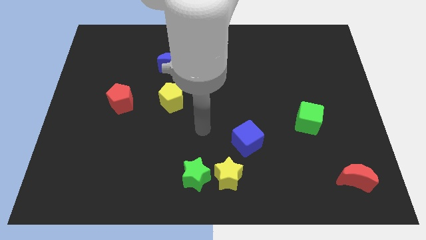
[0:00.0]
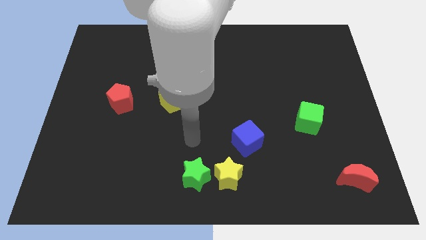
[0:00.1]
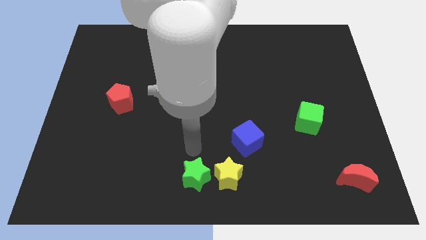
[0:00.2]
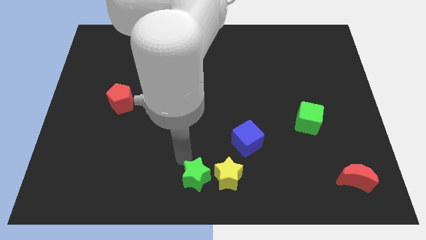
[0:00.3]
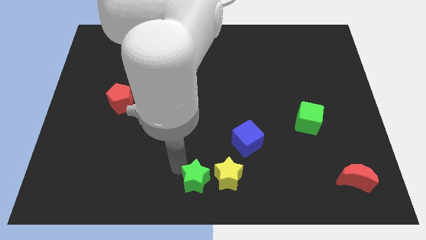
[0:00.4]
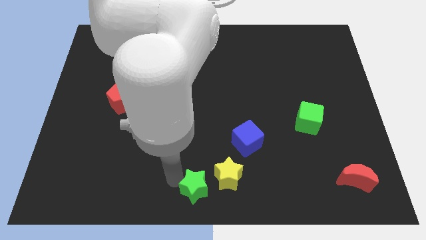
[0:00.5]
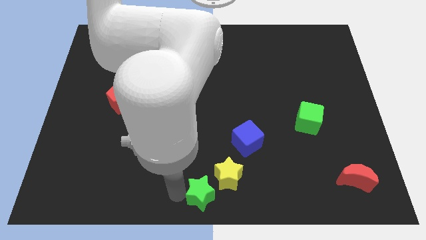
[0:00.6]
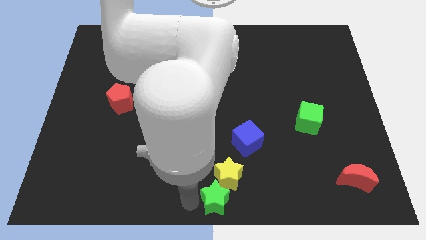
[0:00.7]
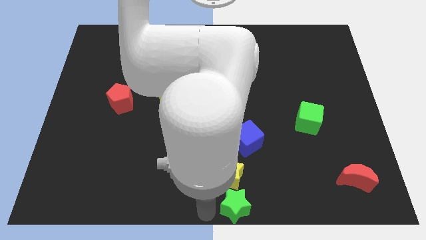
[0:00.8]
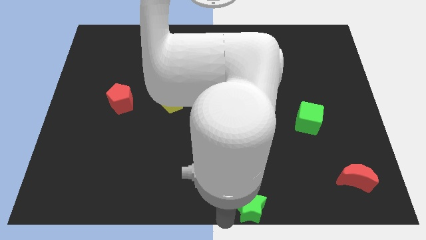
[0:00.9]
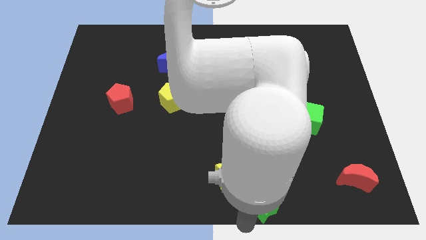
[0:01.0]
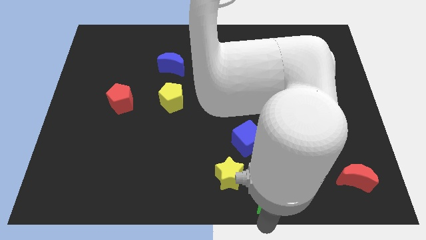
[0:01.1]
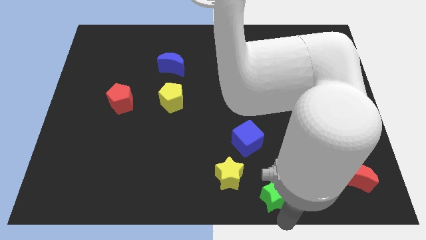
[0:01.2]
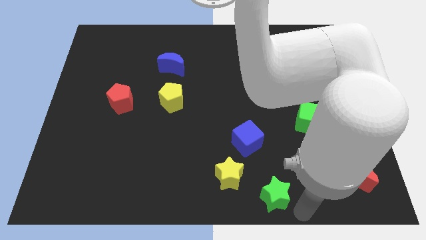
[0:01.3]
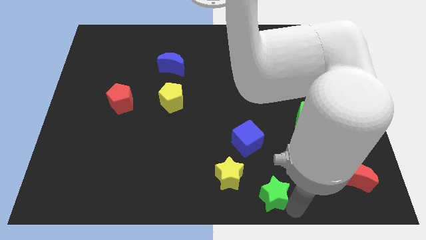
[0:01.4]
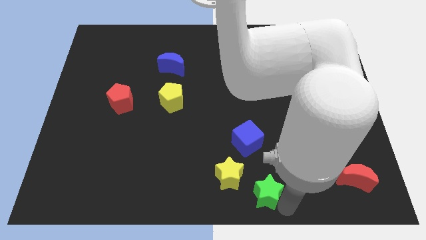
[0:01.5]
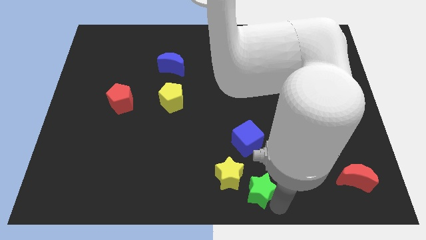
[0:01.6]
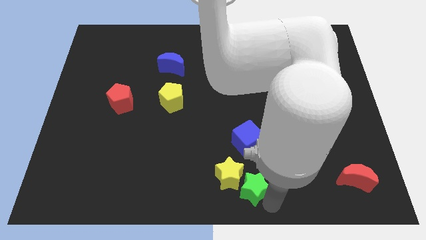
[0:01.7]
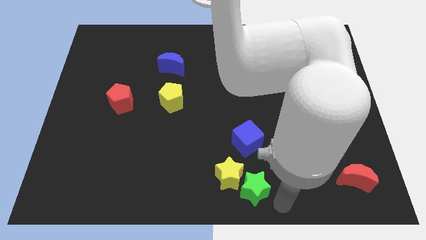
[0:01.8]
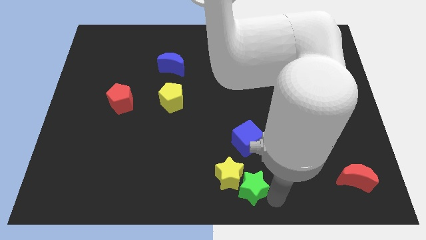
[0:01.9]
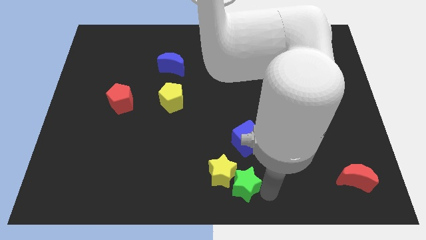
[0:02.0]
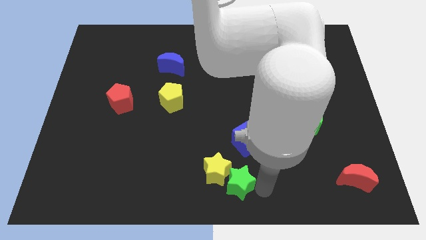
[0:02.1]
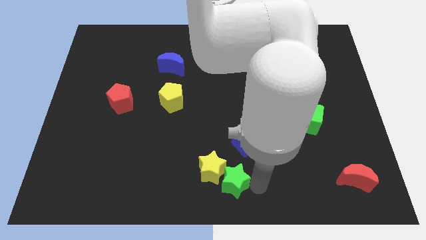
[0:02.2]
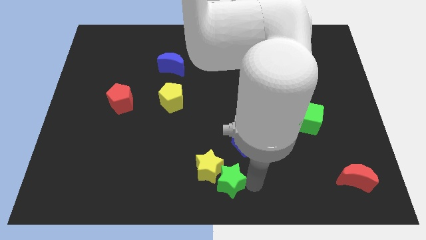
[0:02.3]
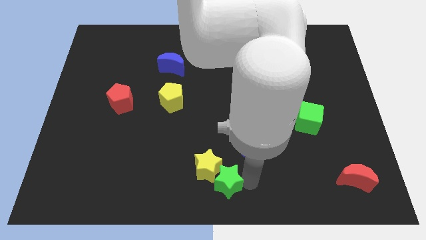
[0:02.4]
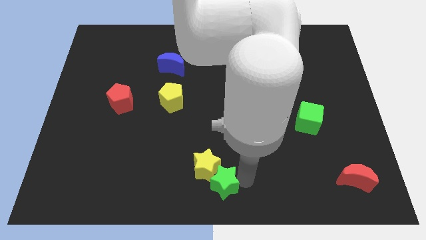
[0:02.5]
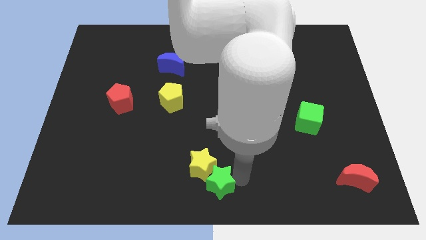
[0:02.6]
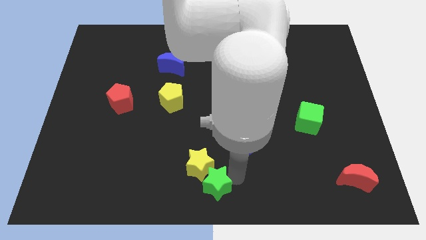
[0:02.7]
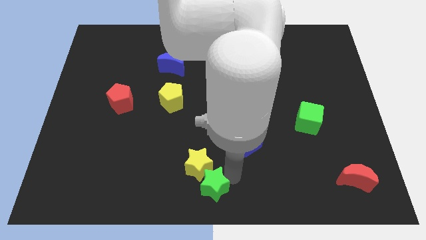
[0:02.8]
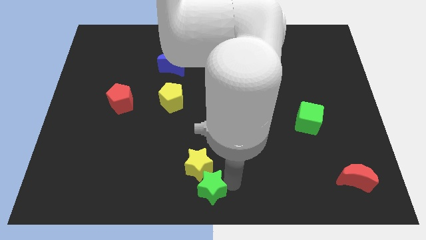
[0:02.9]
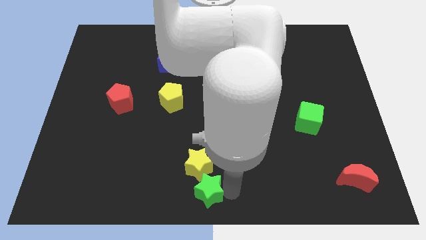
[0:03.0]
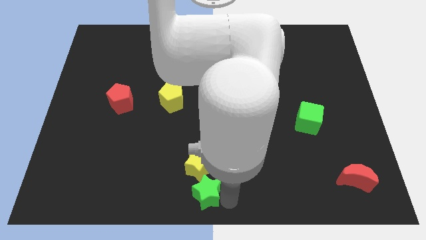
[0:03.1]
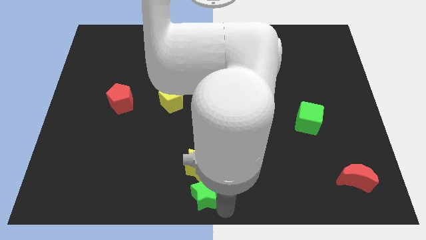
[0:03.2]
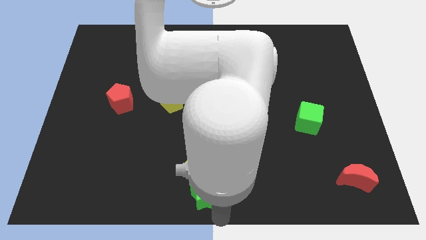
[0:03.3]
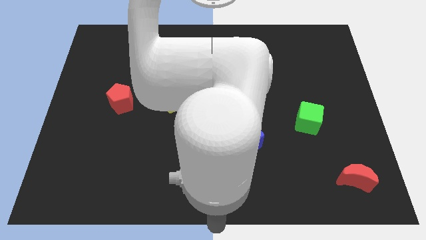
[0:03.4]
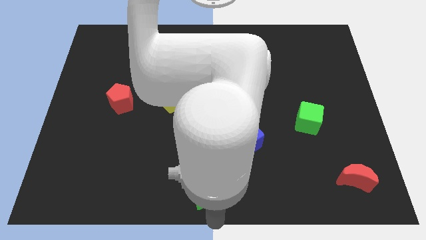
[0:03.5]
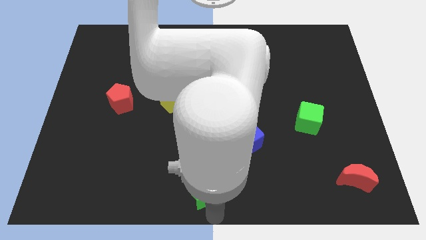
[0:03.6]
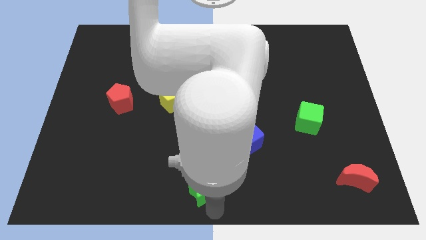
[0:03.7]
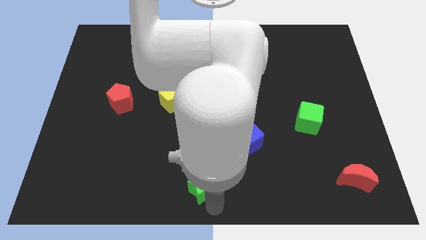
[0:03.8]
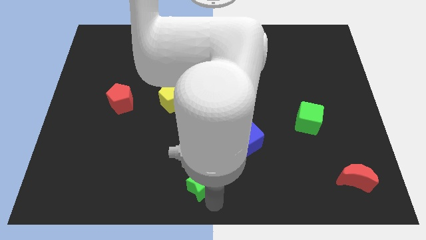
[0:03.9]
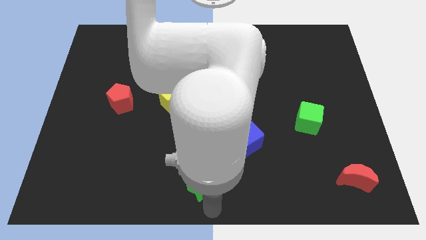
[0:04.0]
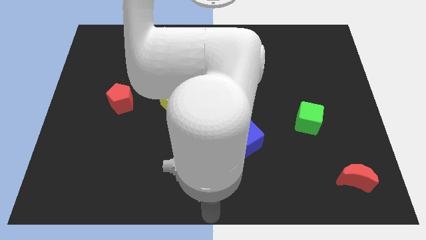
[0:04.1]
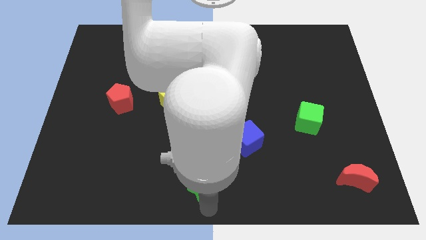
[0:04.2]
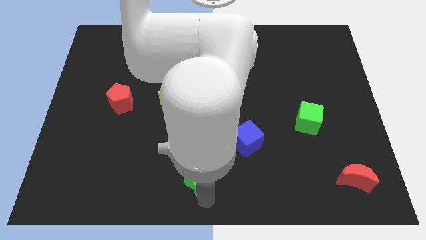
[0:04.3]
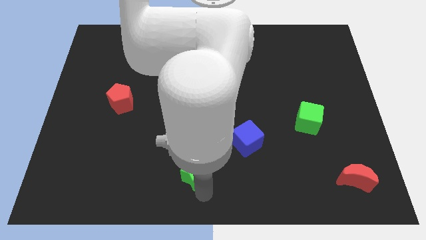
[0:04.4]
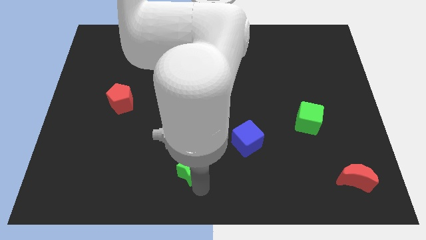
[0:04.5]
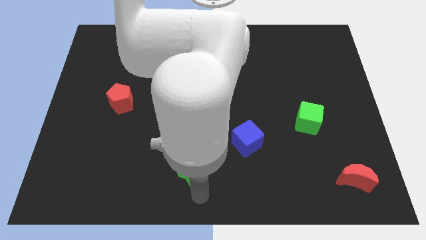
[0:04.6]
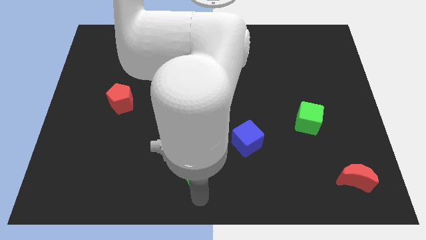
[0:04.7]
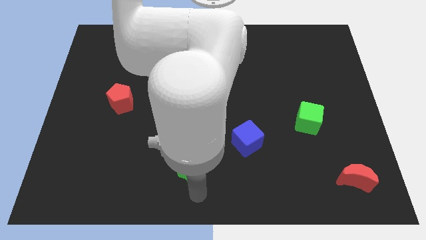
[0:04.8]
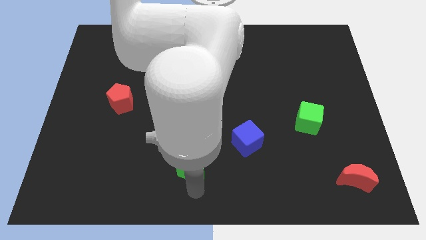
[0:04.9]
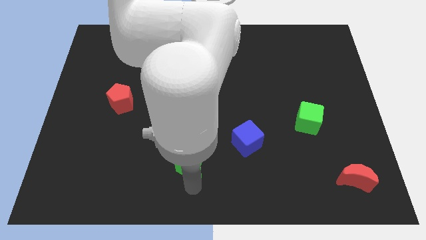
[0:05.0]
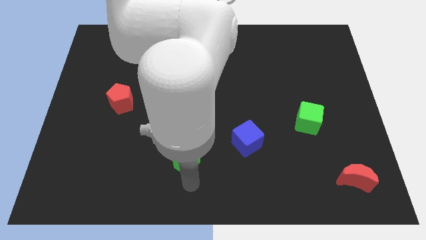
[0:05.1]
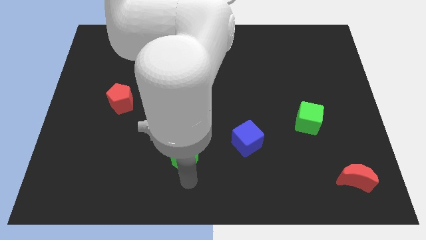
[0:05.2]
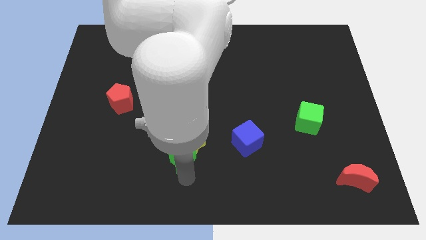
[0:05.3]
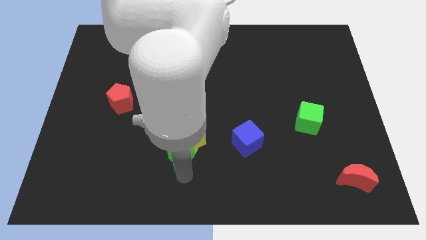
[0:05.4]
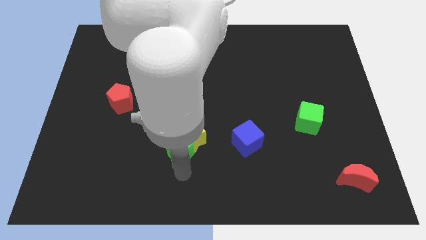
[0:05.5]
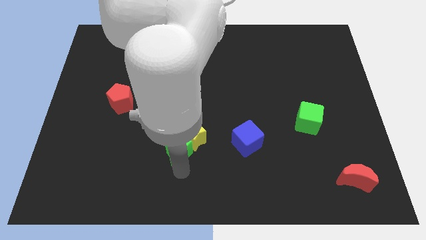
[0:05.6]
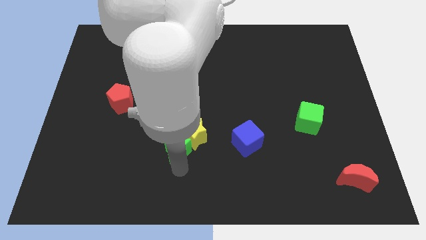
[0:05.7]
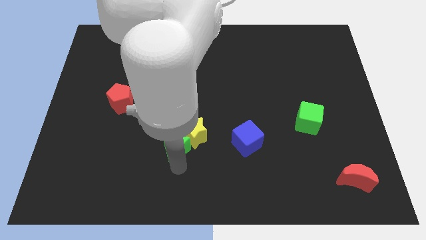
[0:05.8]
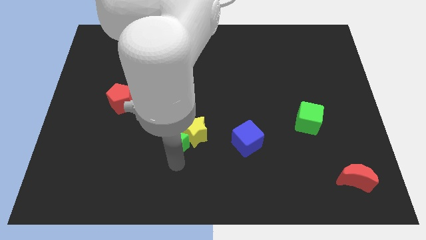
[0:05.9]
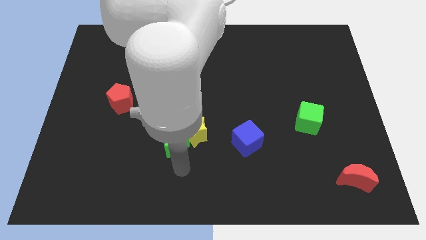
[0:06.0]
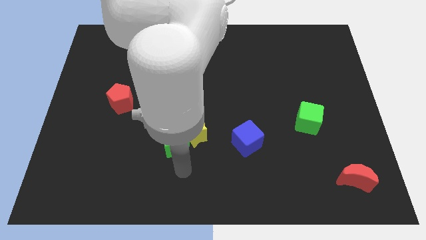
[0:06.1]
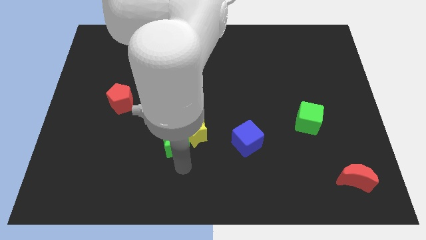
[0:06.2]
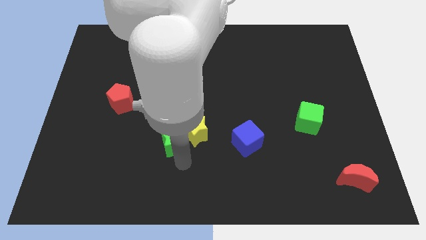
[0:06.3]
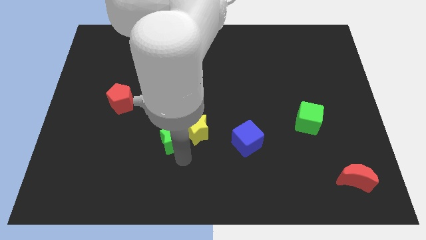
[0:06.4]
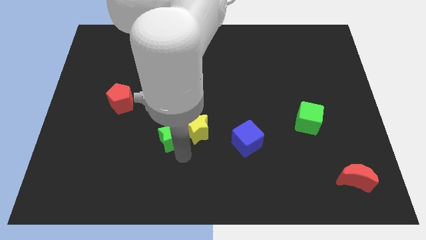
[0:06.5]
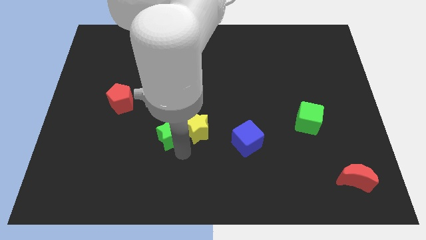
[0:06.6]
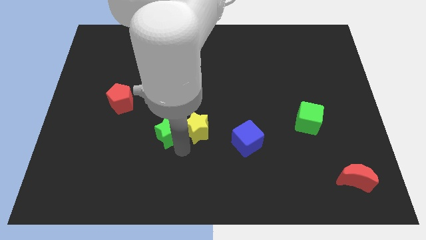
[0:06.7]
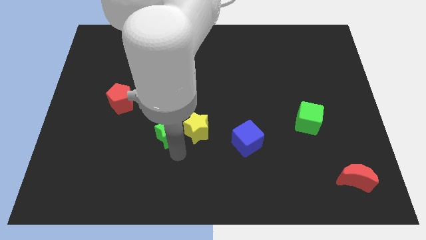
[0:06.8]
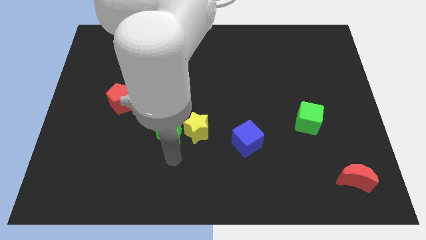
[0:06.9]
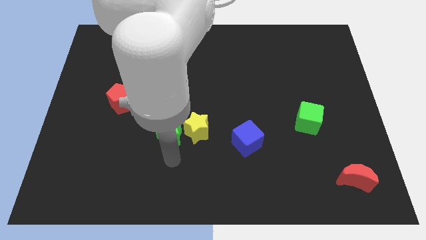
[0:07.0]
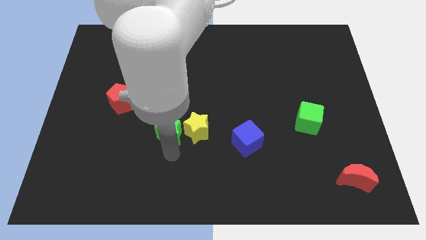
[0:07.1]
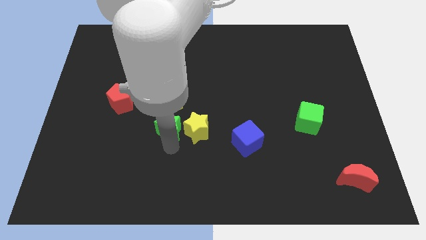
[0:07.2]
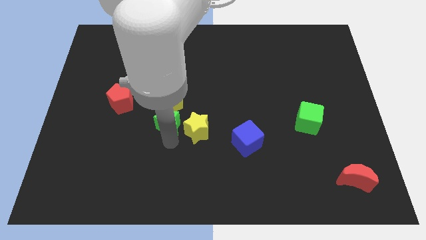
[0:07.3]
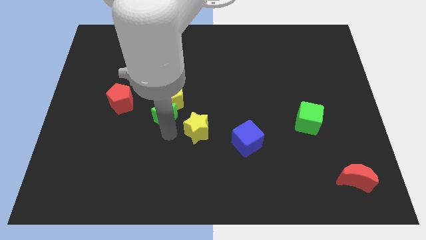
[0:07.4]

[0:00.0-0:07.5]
put the green star below the blue moon
